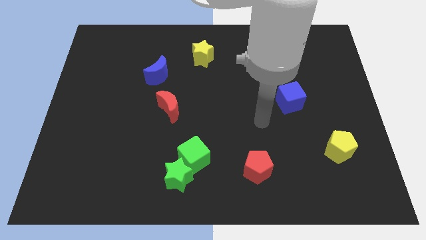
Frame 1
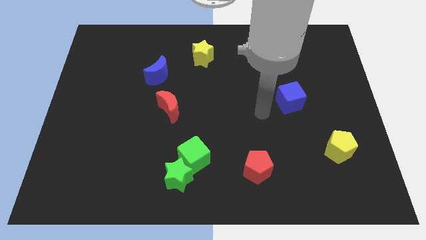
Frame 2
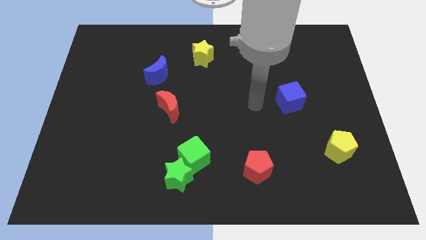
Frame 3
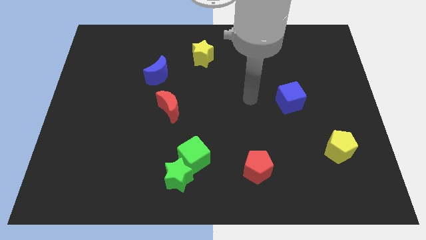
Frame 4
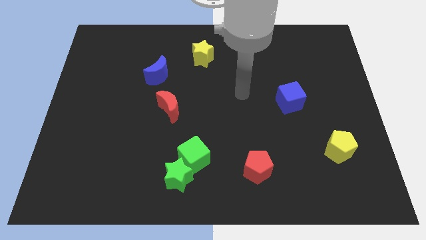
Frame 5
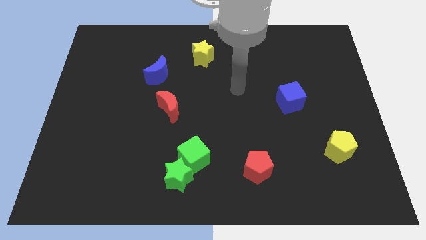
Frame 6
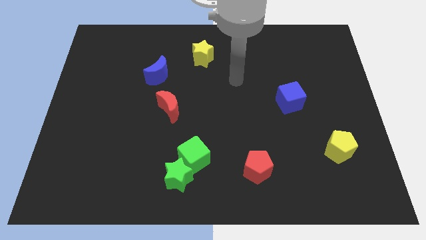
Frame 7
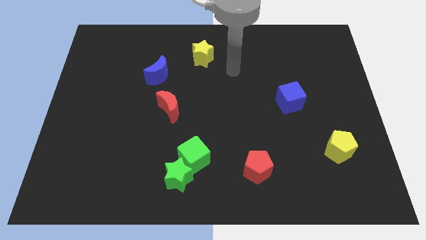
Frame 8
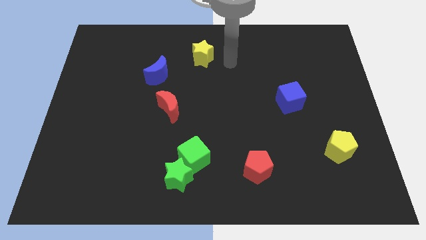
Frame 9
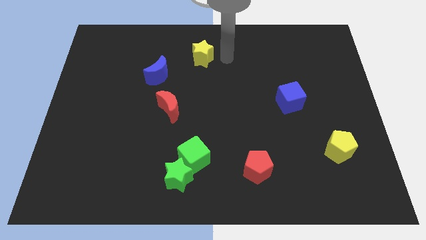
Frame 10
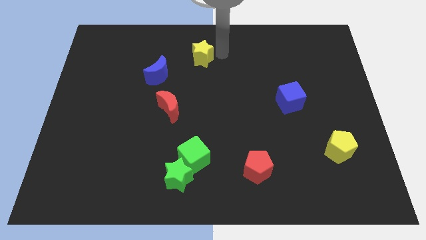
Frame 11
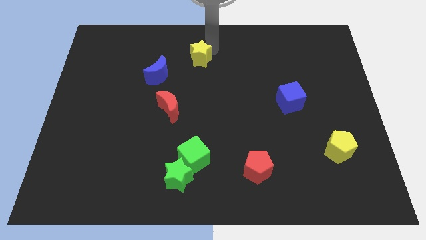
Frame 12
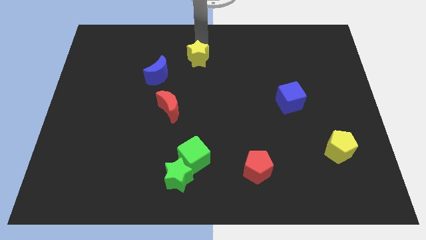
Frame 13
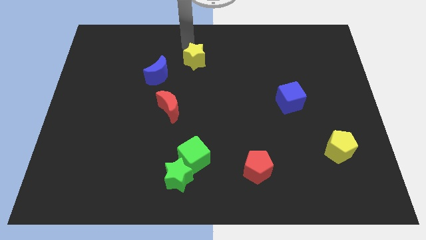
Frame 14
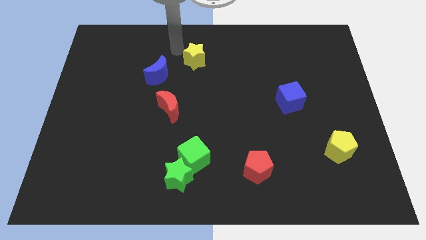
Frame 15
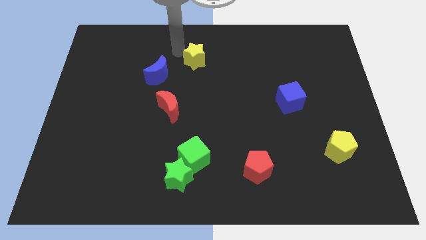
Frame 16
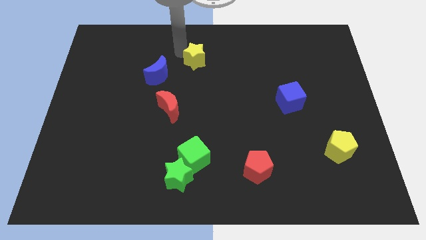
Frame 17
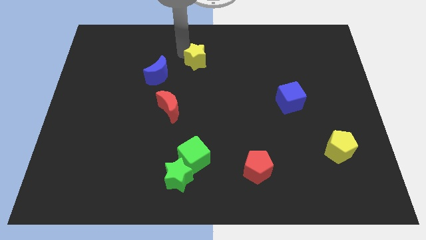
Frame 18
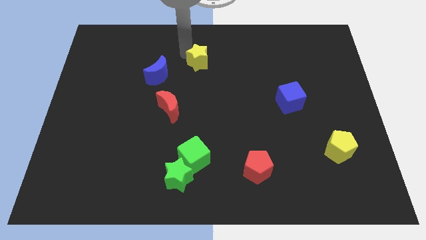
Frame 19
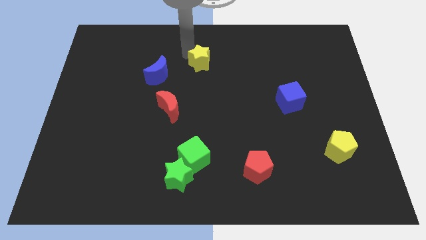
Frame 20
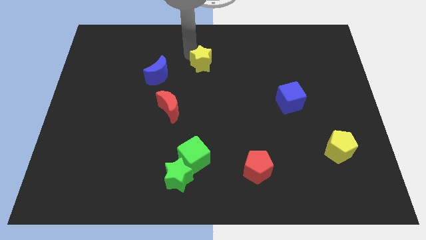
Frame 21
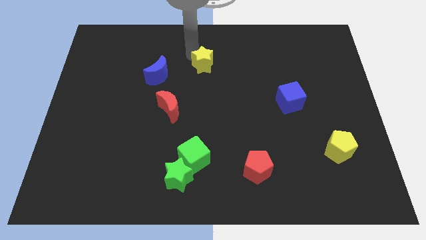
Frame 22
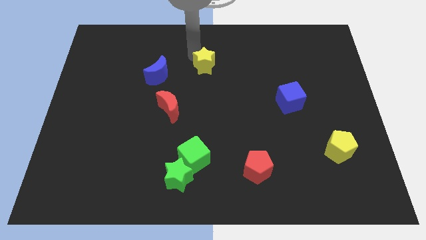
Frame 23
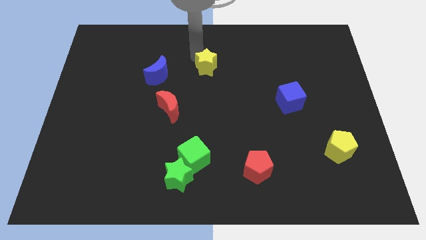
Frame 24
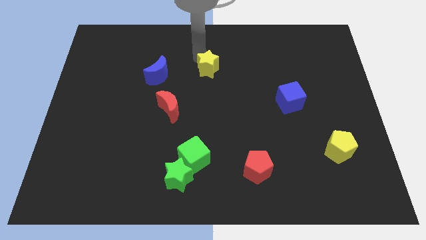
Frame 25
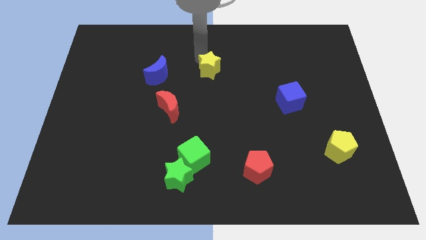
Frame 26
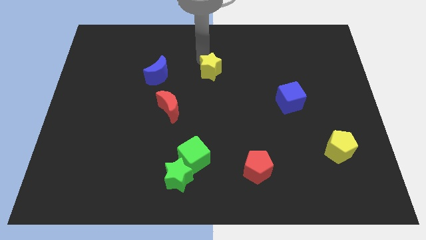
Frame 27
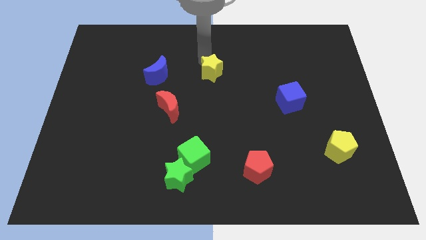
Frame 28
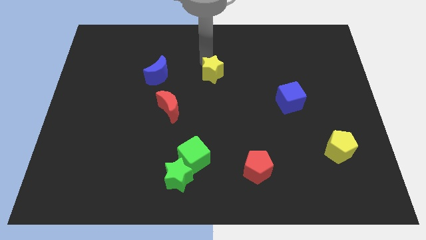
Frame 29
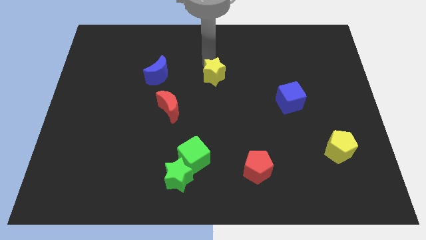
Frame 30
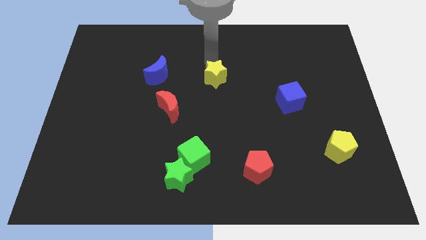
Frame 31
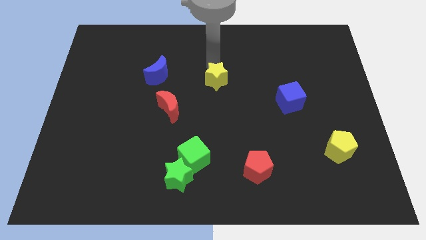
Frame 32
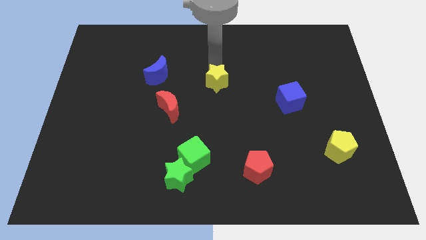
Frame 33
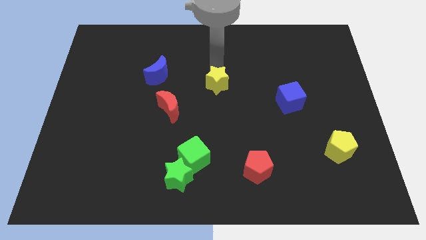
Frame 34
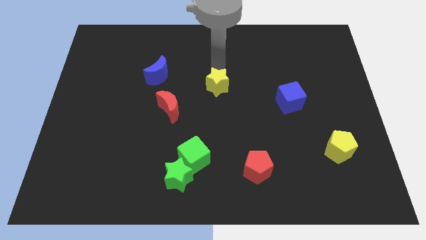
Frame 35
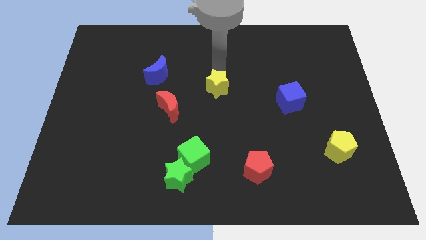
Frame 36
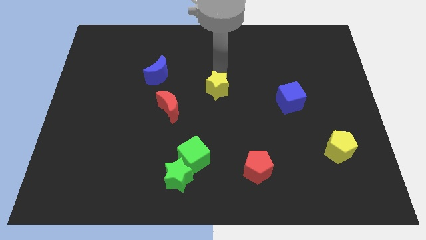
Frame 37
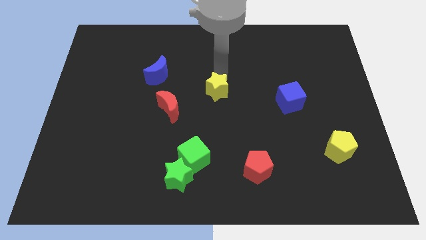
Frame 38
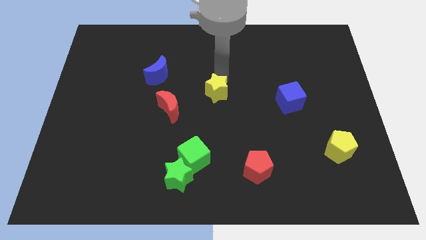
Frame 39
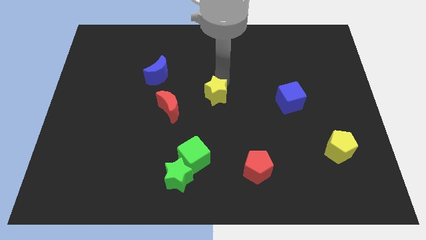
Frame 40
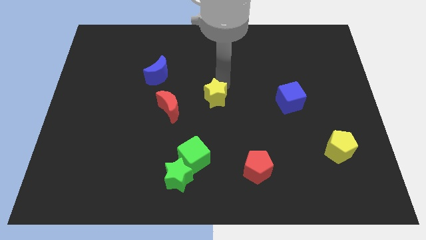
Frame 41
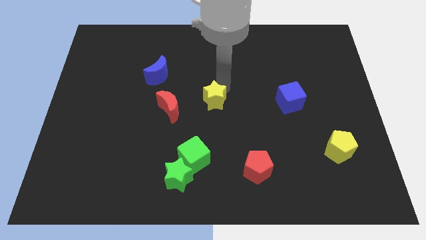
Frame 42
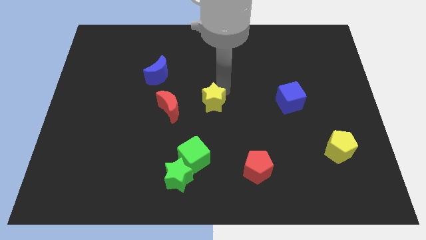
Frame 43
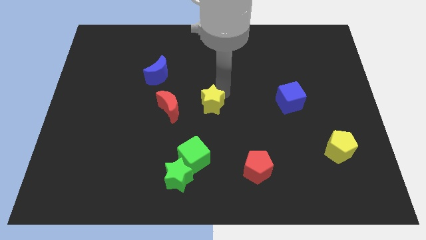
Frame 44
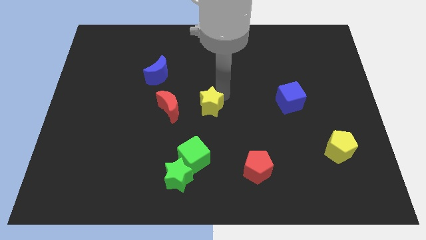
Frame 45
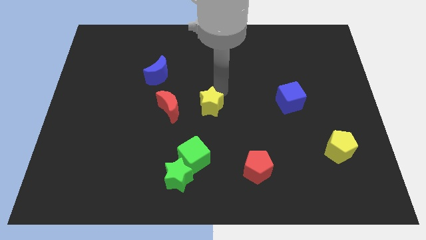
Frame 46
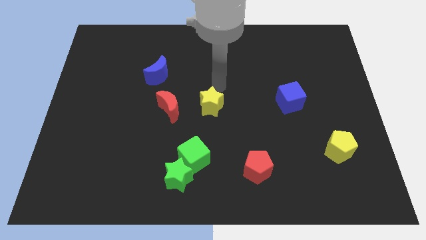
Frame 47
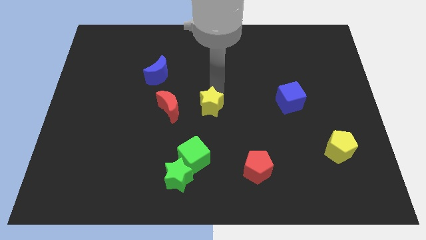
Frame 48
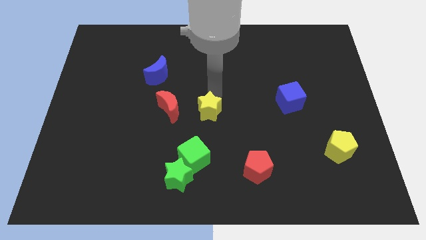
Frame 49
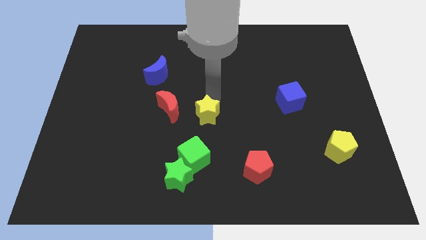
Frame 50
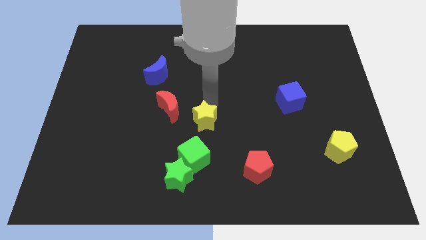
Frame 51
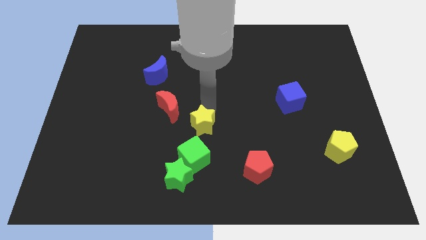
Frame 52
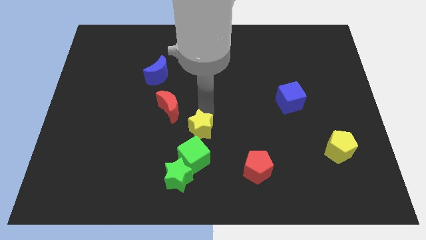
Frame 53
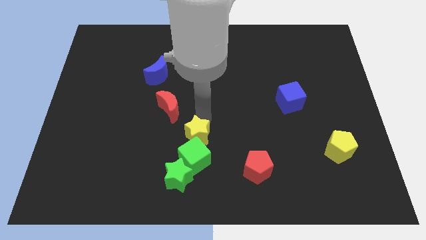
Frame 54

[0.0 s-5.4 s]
move the yellow star next to the green cube

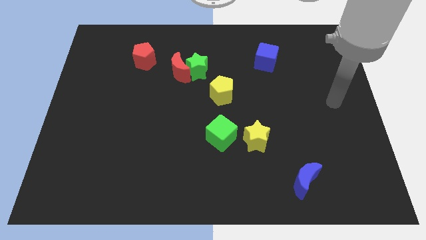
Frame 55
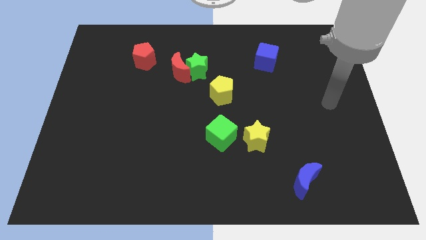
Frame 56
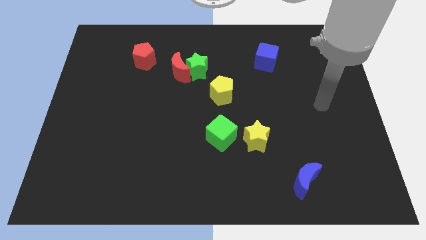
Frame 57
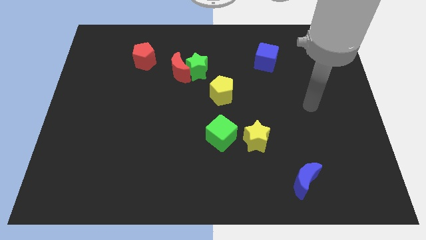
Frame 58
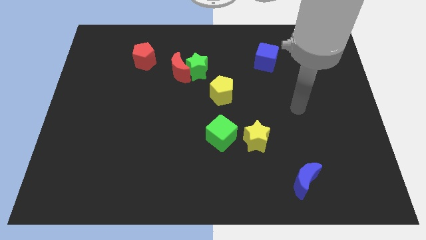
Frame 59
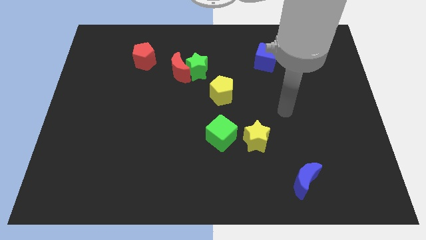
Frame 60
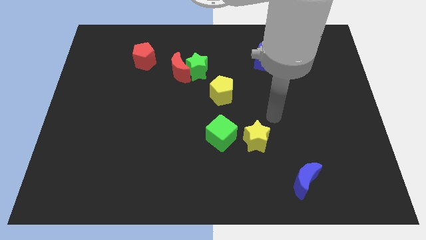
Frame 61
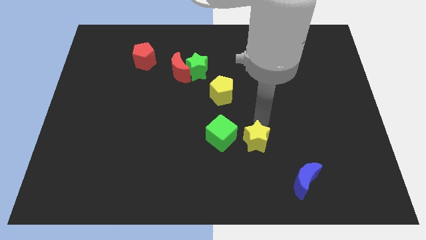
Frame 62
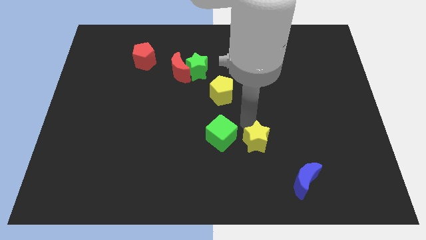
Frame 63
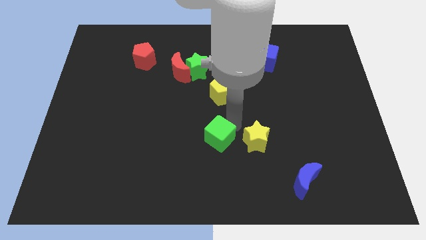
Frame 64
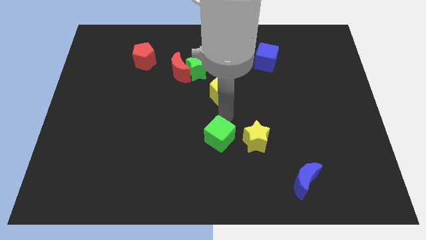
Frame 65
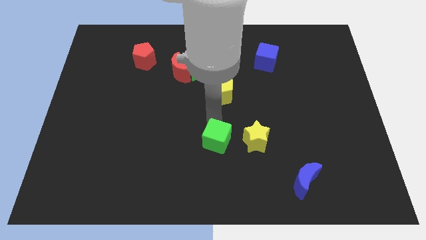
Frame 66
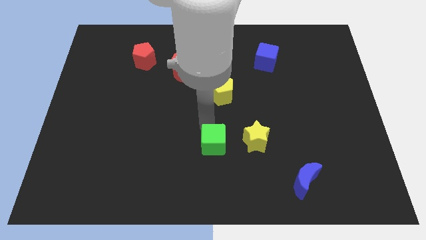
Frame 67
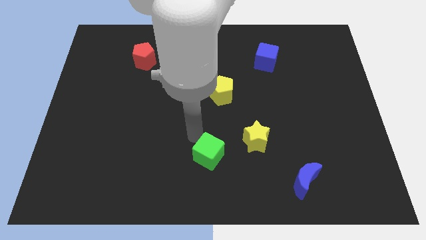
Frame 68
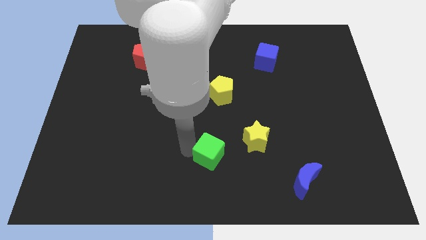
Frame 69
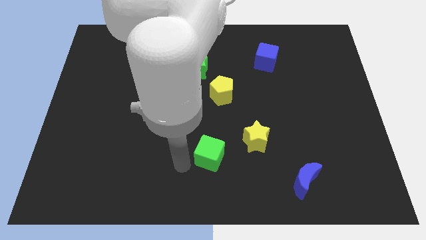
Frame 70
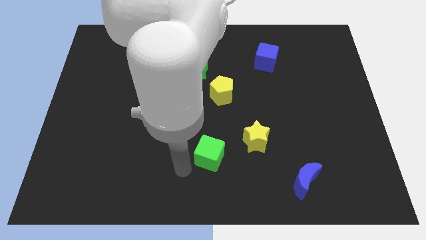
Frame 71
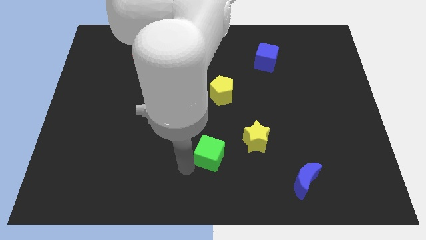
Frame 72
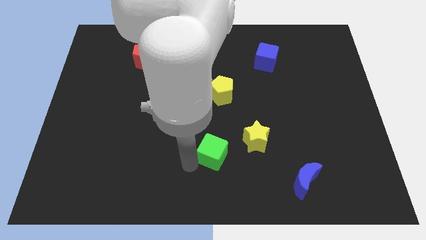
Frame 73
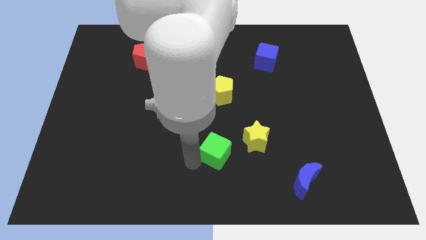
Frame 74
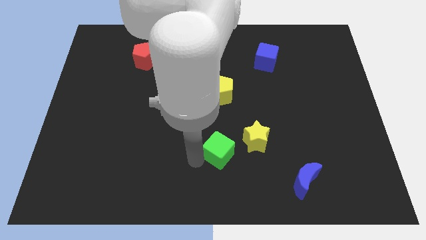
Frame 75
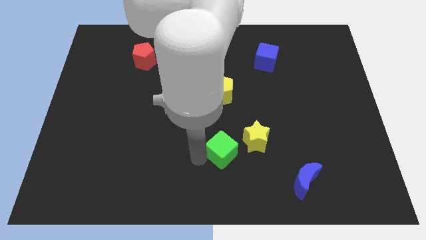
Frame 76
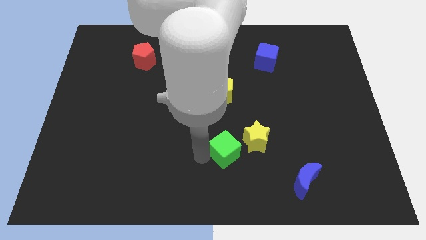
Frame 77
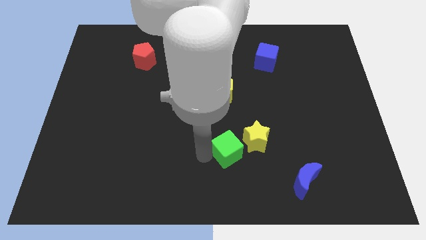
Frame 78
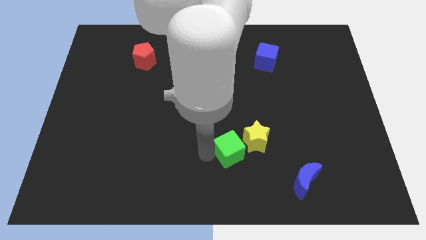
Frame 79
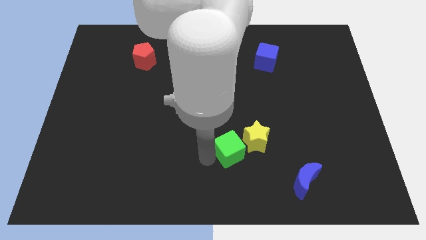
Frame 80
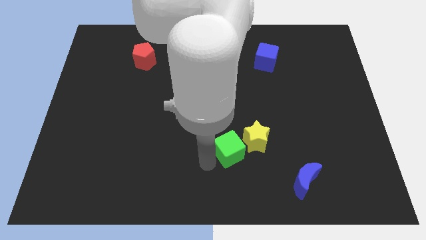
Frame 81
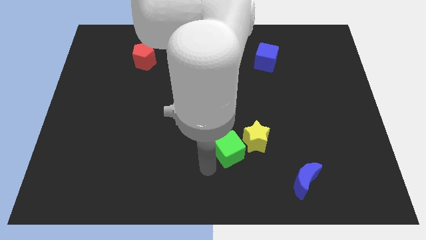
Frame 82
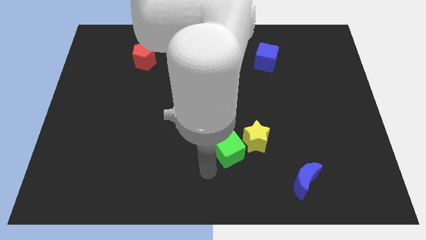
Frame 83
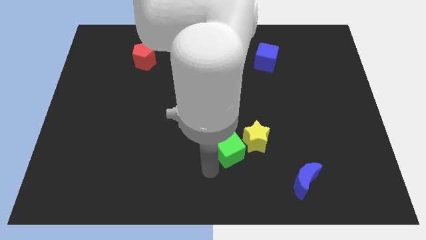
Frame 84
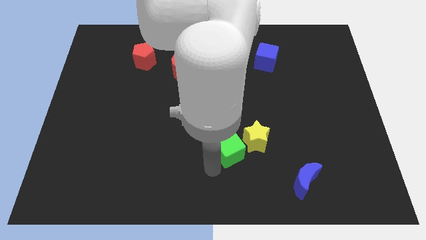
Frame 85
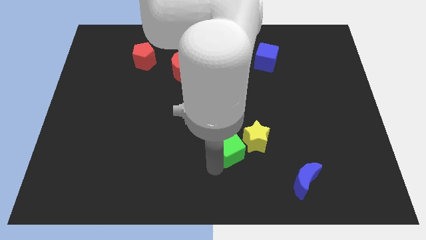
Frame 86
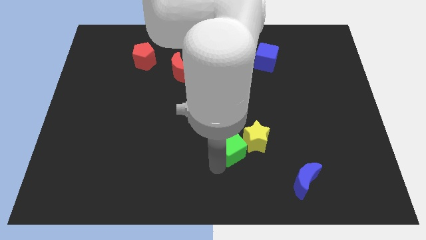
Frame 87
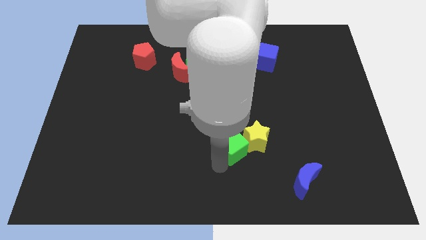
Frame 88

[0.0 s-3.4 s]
put the green cube towards the yellow star
